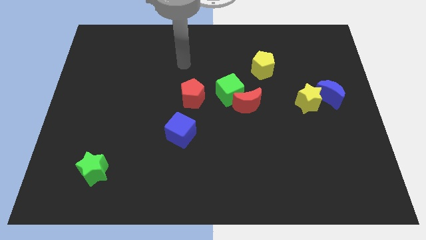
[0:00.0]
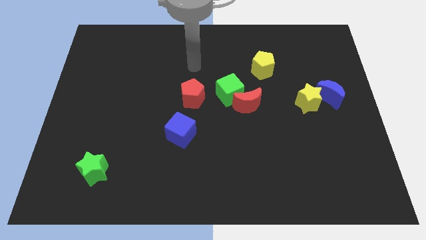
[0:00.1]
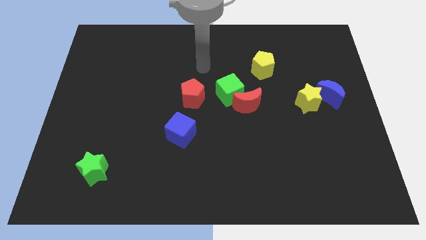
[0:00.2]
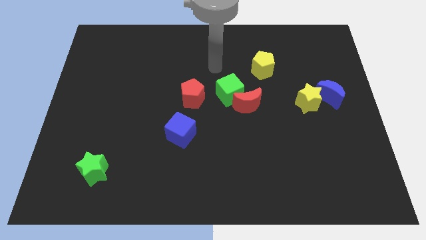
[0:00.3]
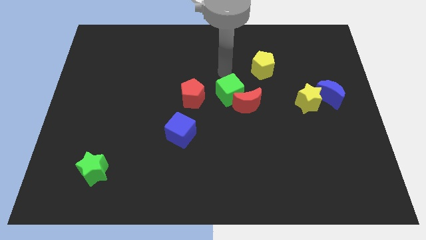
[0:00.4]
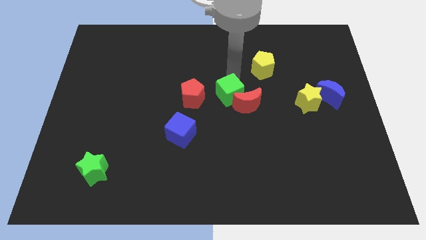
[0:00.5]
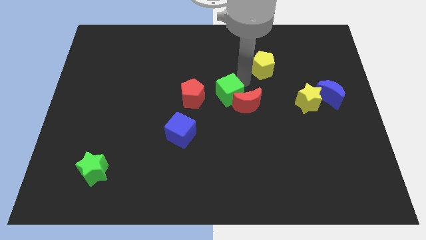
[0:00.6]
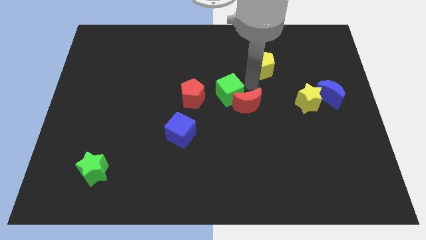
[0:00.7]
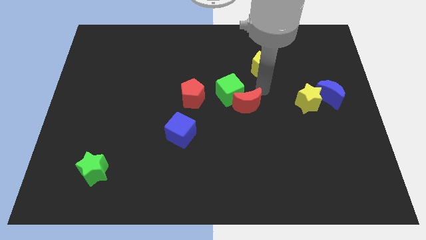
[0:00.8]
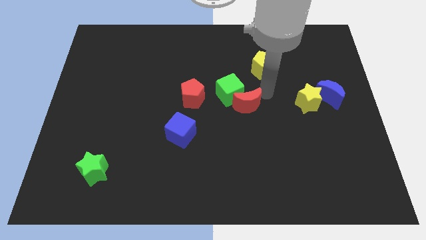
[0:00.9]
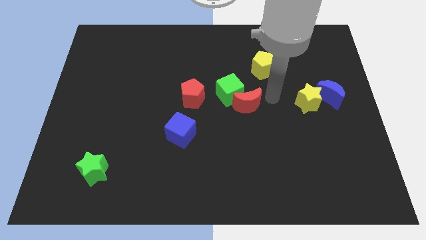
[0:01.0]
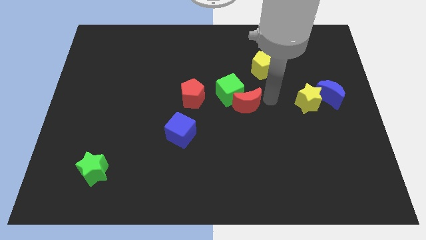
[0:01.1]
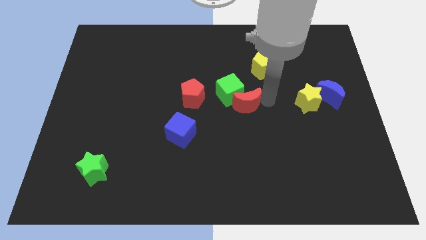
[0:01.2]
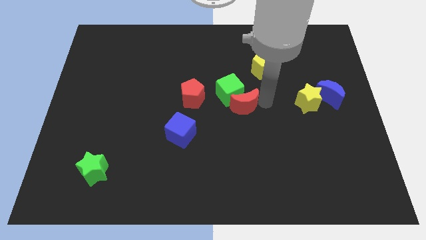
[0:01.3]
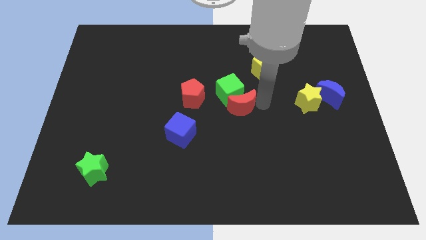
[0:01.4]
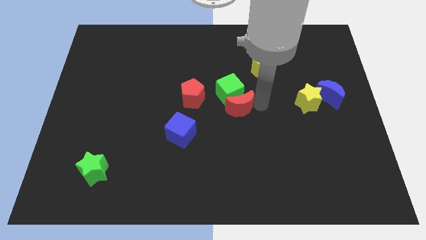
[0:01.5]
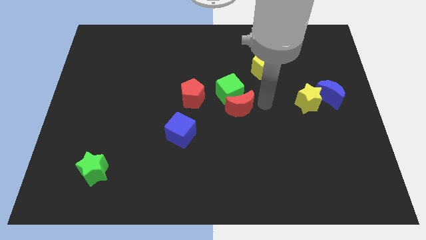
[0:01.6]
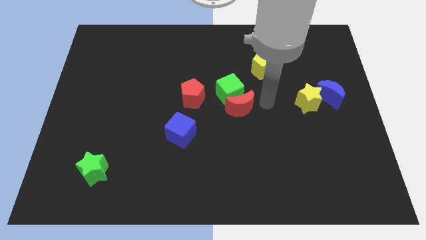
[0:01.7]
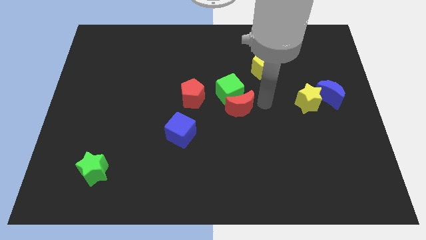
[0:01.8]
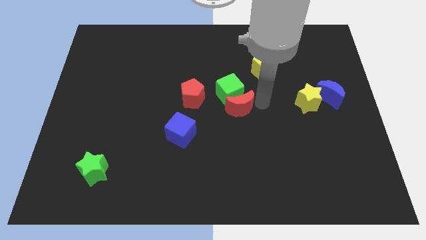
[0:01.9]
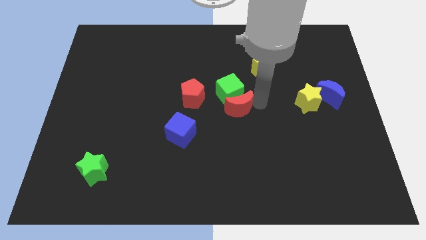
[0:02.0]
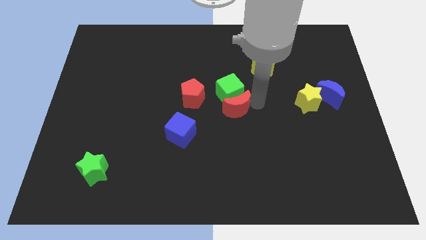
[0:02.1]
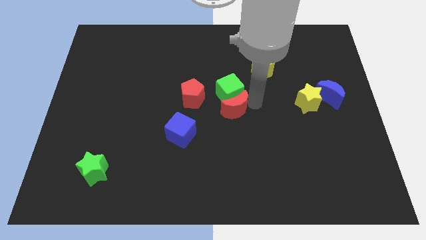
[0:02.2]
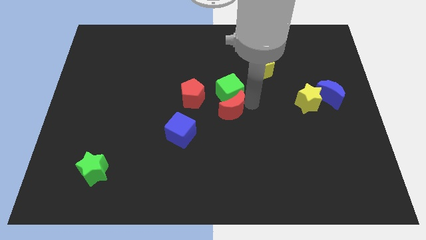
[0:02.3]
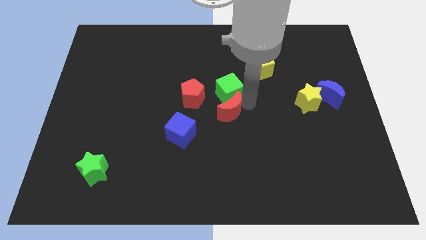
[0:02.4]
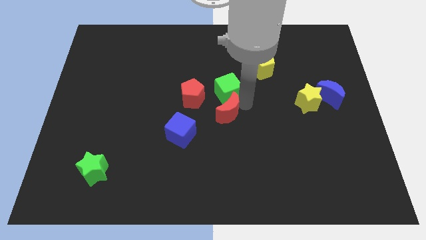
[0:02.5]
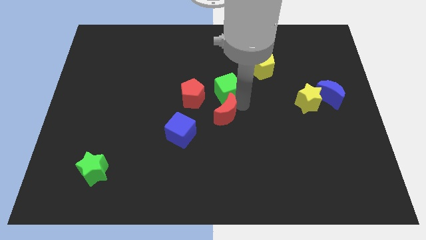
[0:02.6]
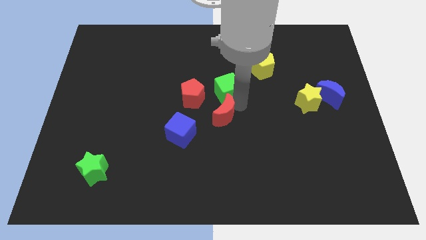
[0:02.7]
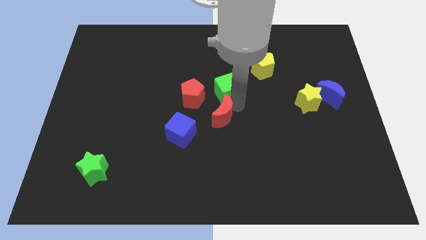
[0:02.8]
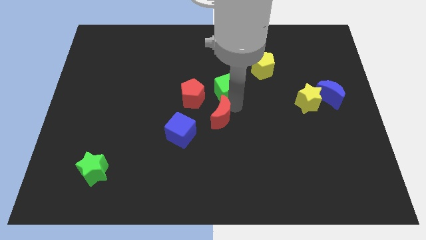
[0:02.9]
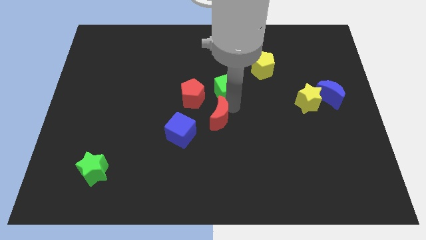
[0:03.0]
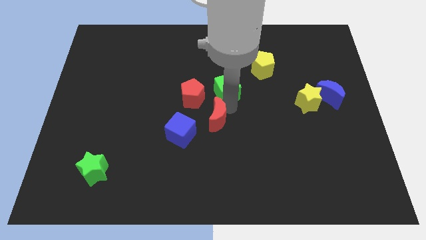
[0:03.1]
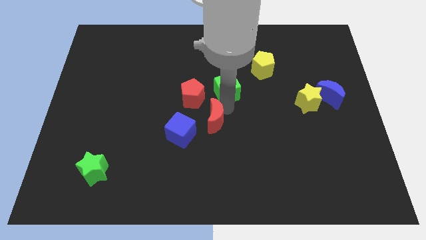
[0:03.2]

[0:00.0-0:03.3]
move the red moon somewhat to the left

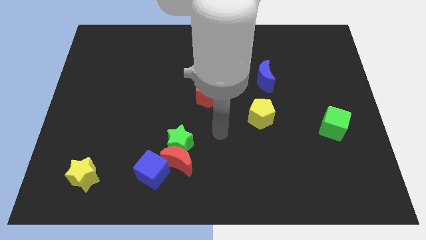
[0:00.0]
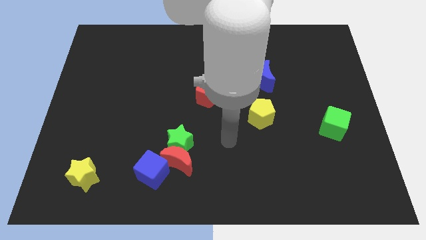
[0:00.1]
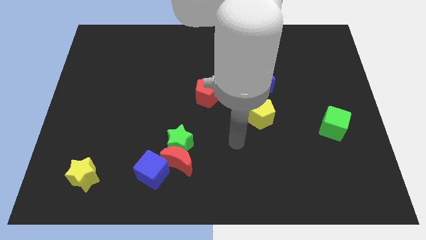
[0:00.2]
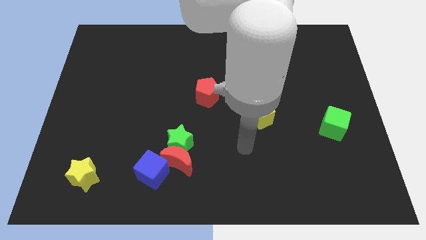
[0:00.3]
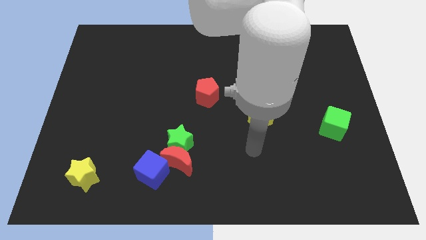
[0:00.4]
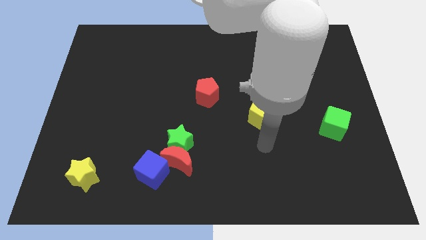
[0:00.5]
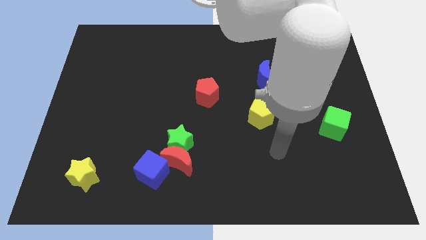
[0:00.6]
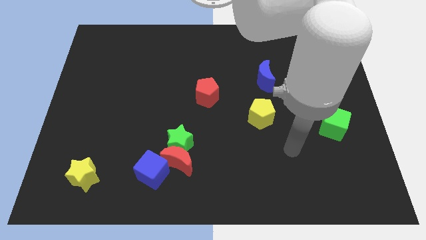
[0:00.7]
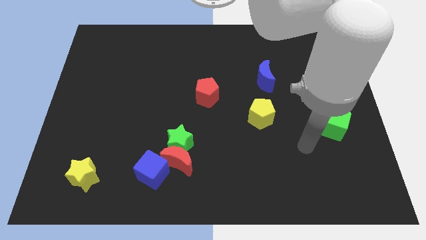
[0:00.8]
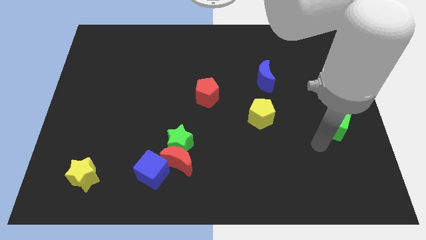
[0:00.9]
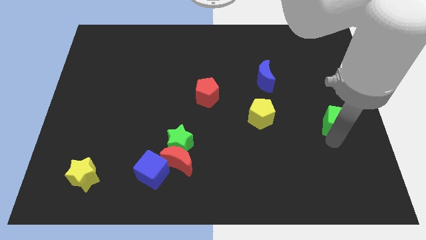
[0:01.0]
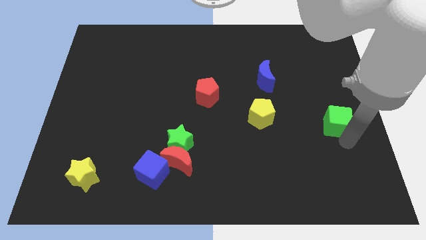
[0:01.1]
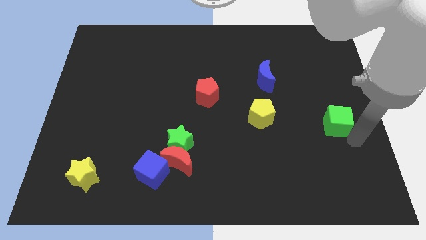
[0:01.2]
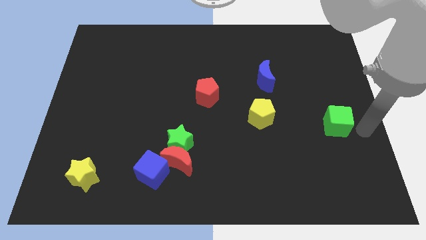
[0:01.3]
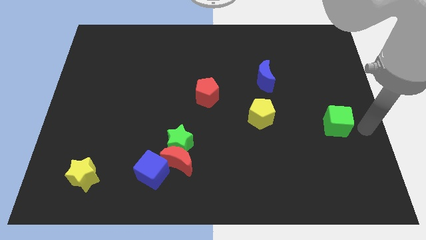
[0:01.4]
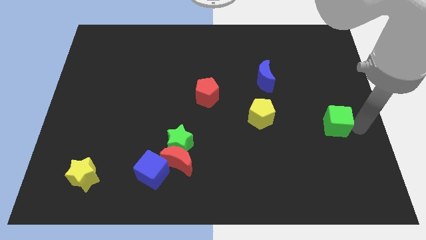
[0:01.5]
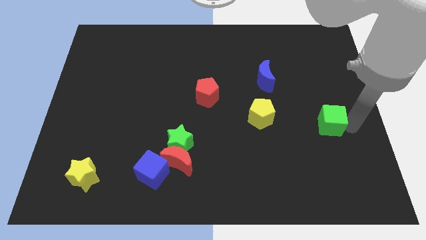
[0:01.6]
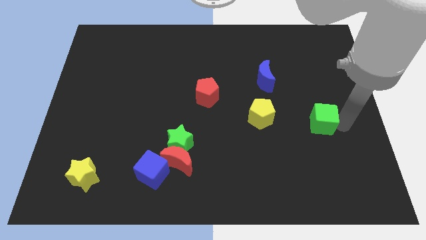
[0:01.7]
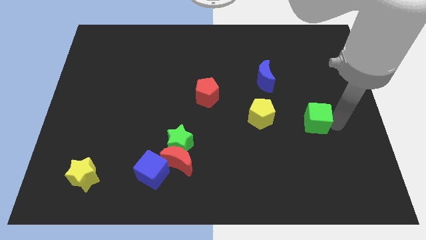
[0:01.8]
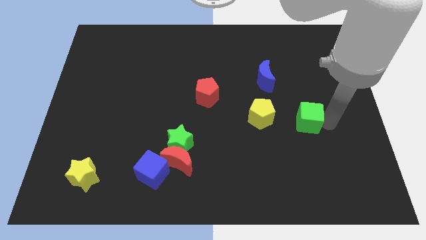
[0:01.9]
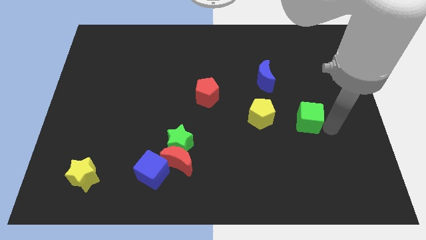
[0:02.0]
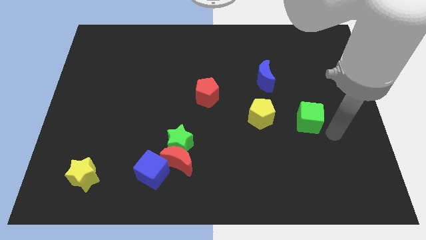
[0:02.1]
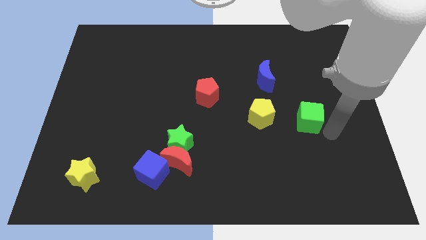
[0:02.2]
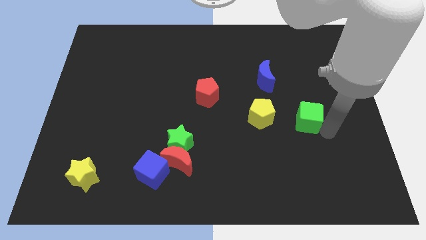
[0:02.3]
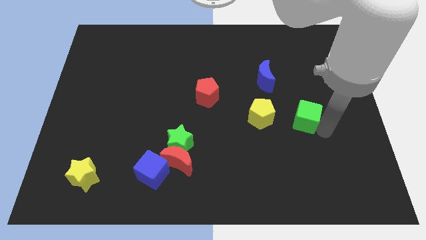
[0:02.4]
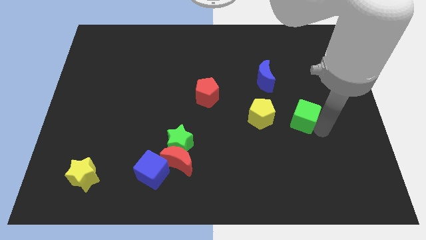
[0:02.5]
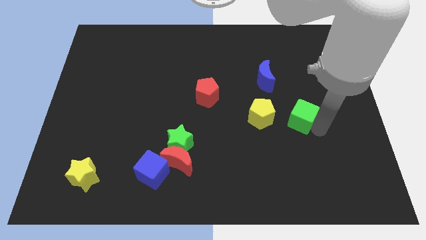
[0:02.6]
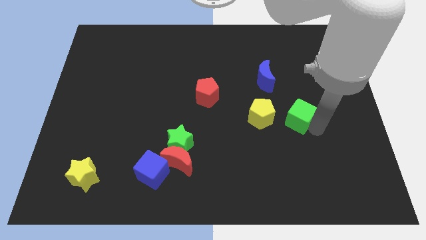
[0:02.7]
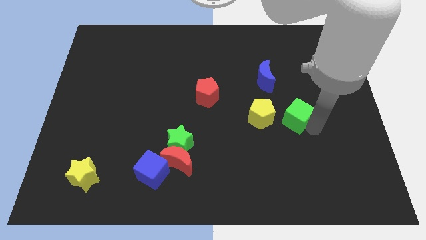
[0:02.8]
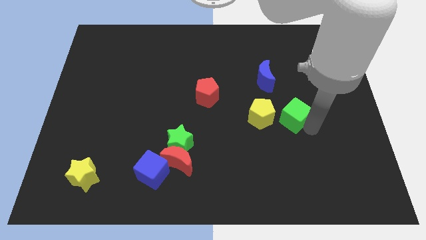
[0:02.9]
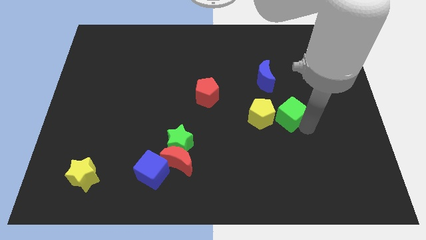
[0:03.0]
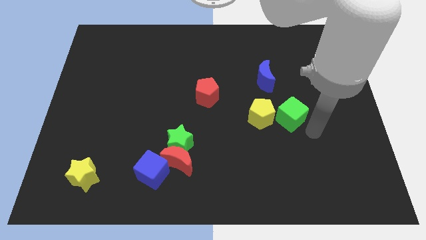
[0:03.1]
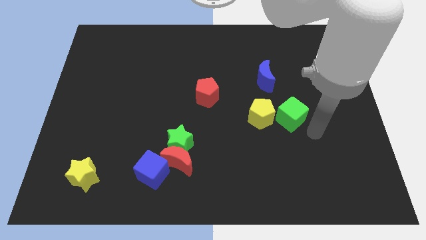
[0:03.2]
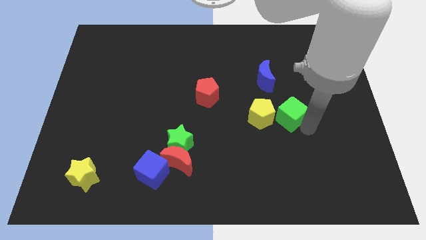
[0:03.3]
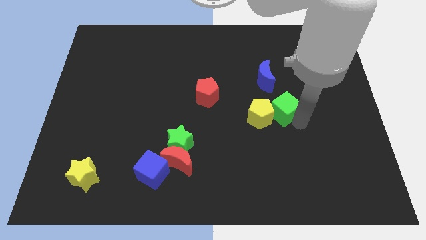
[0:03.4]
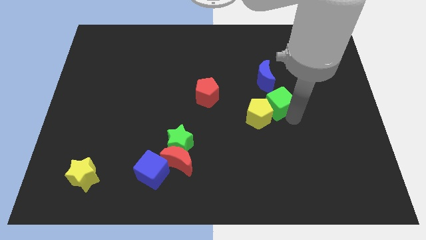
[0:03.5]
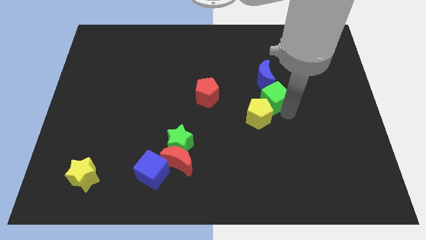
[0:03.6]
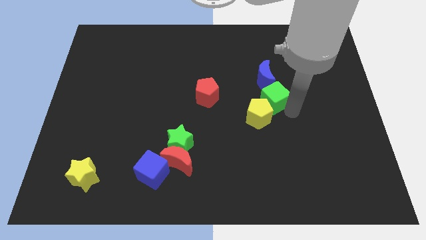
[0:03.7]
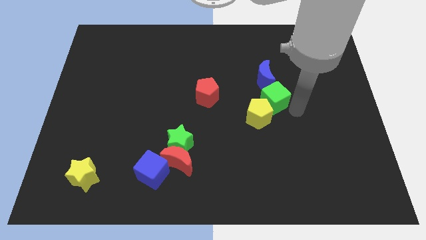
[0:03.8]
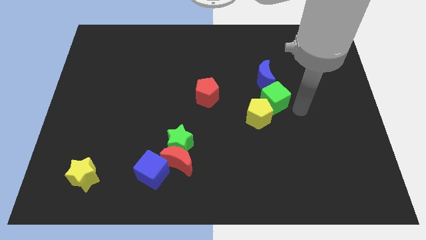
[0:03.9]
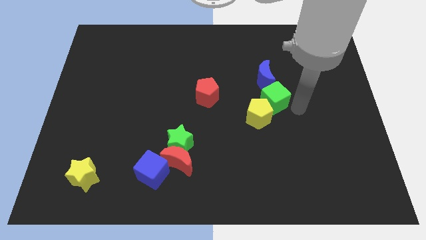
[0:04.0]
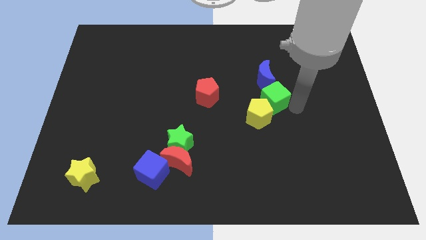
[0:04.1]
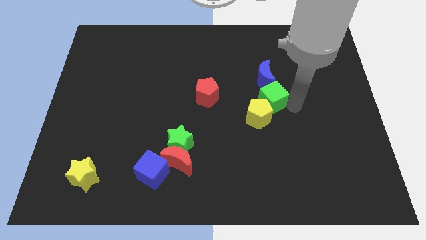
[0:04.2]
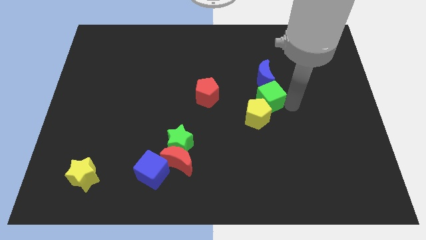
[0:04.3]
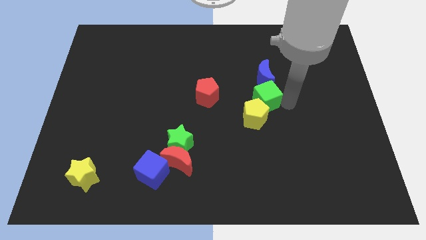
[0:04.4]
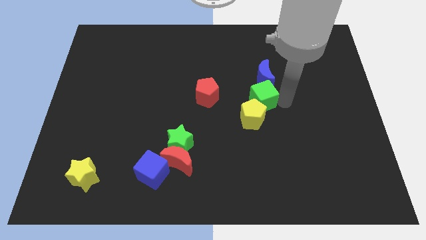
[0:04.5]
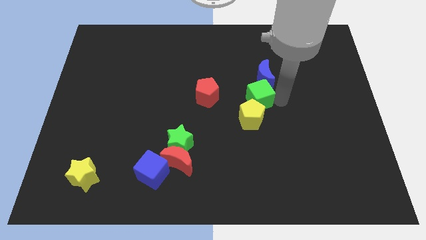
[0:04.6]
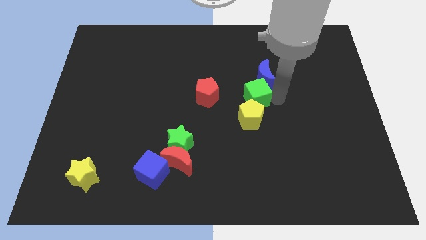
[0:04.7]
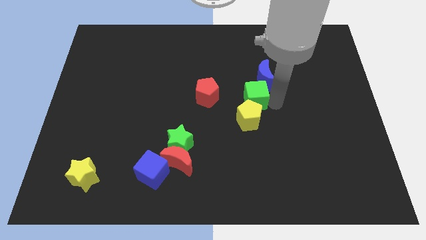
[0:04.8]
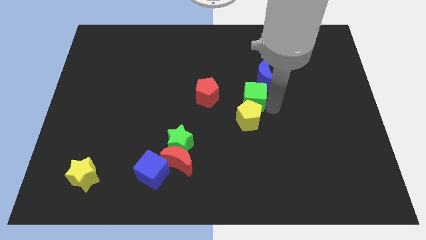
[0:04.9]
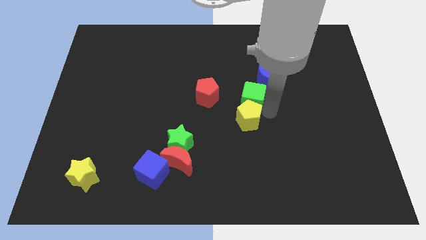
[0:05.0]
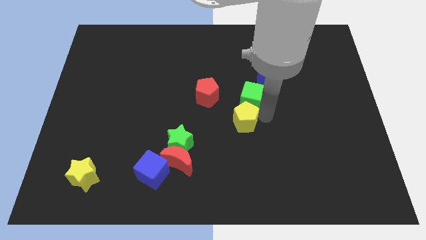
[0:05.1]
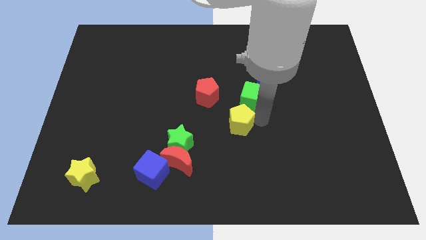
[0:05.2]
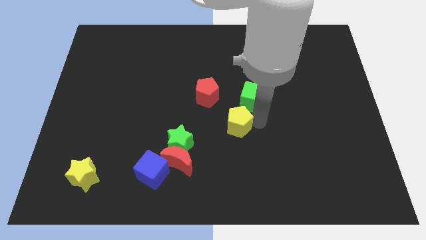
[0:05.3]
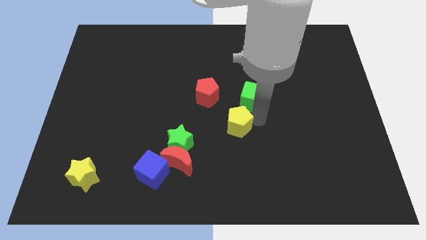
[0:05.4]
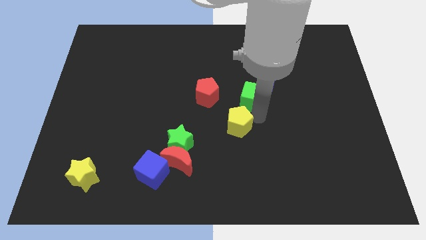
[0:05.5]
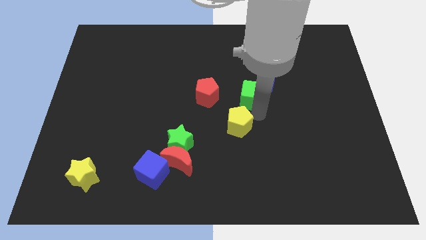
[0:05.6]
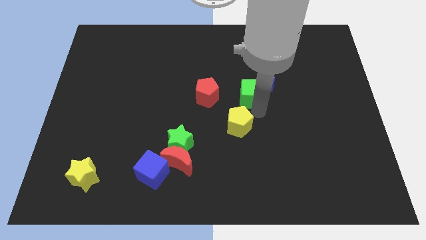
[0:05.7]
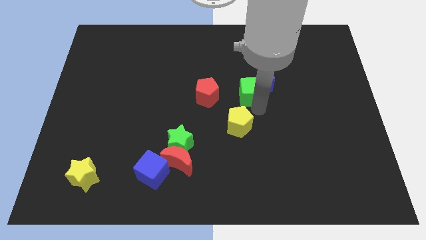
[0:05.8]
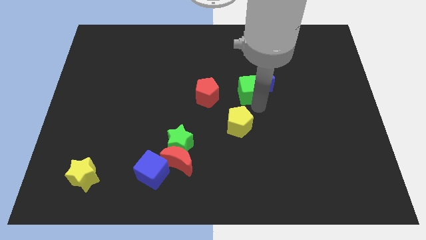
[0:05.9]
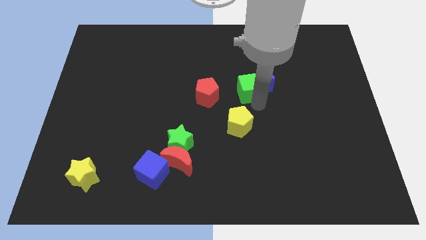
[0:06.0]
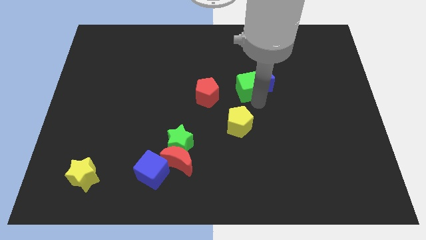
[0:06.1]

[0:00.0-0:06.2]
slide the green cube up and left
